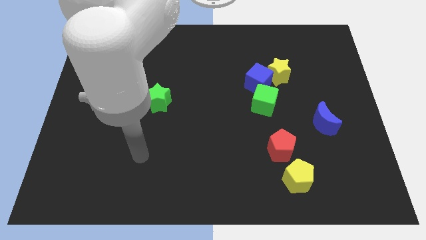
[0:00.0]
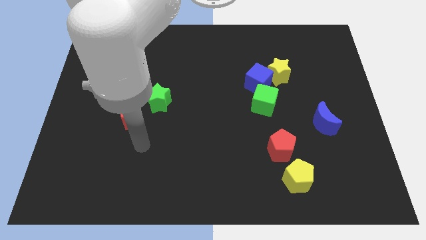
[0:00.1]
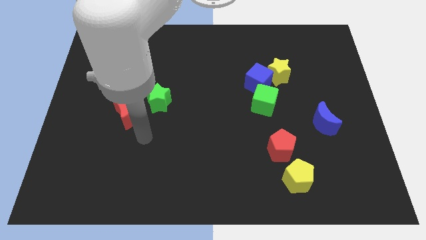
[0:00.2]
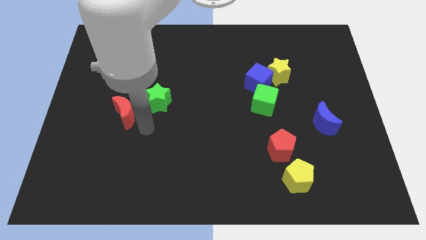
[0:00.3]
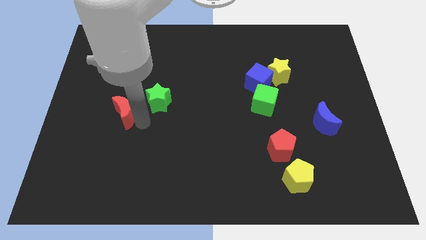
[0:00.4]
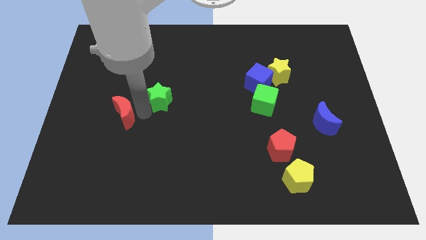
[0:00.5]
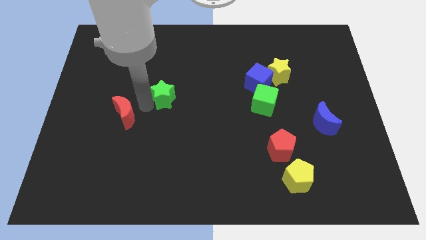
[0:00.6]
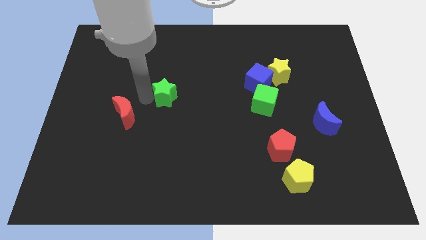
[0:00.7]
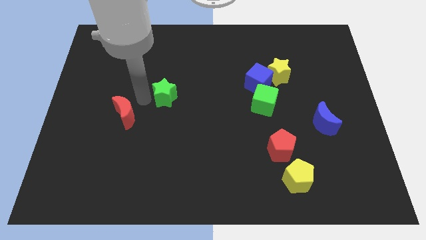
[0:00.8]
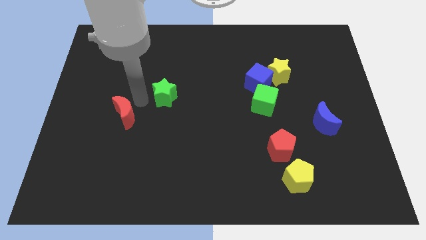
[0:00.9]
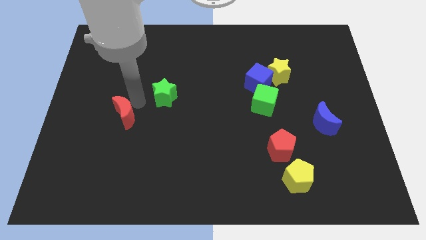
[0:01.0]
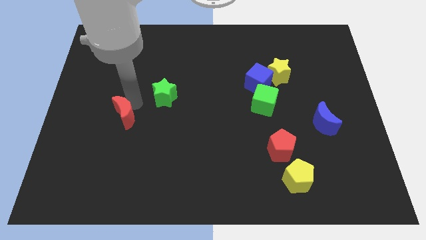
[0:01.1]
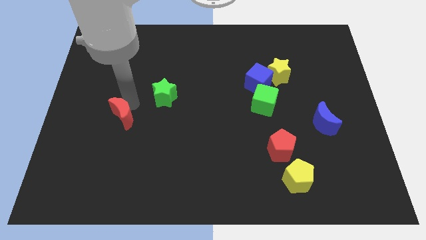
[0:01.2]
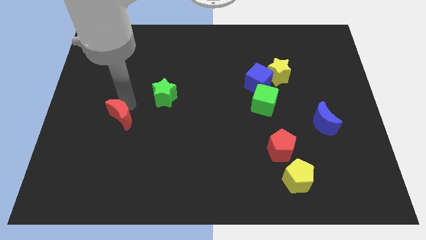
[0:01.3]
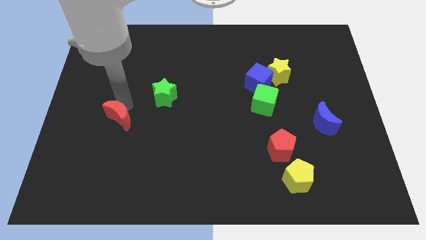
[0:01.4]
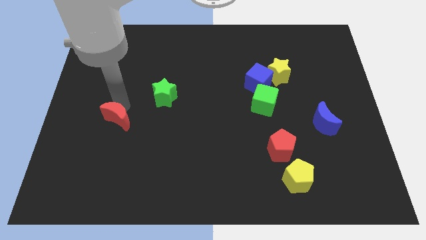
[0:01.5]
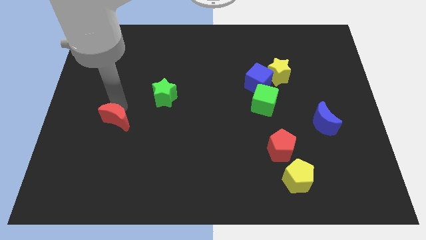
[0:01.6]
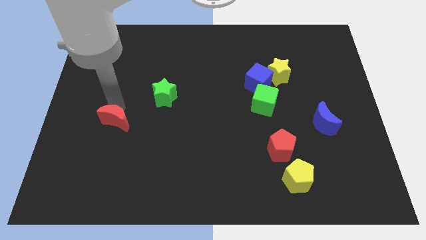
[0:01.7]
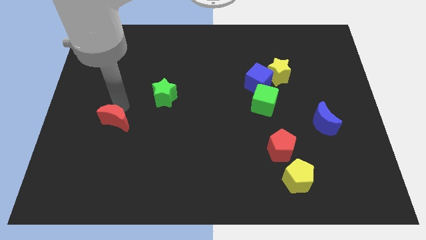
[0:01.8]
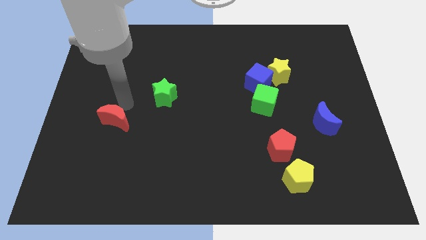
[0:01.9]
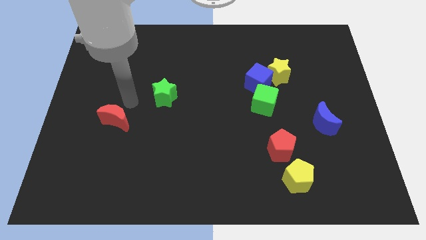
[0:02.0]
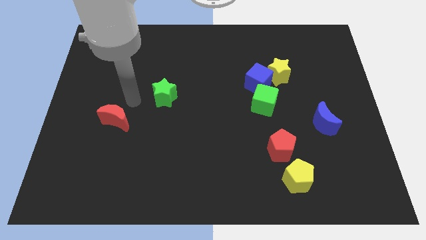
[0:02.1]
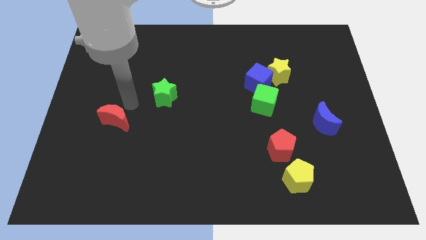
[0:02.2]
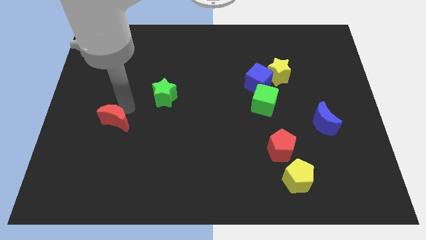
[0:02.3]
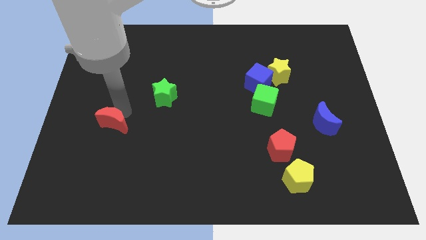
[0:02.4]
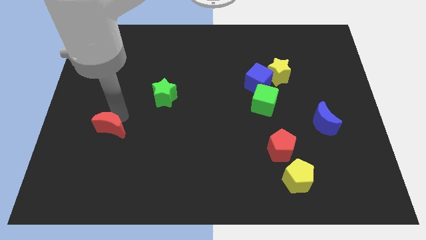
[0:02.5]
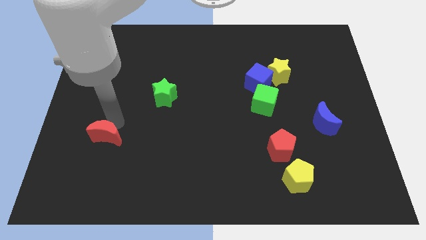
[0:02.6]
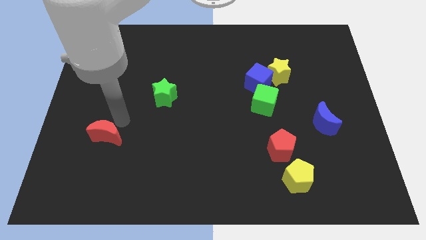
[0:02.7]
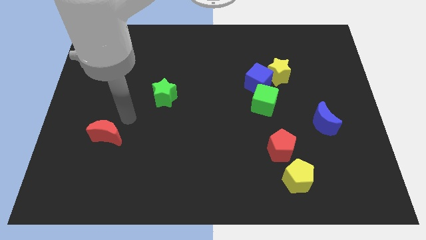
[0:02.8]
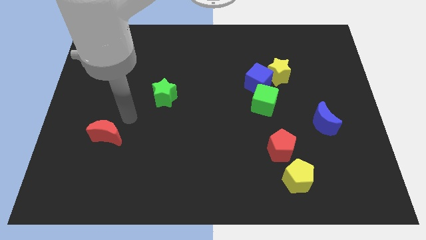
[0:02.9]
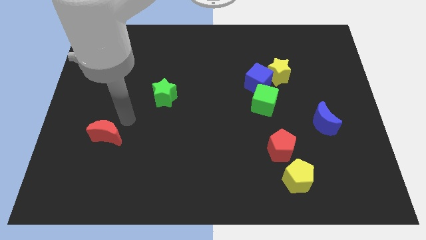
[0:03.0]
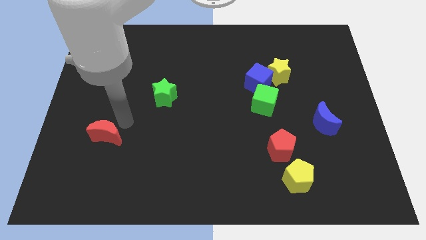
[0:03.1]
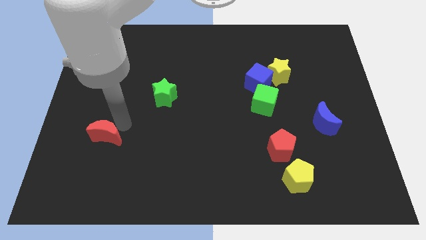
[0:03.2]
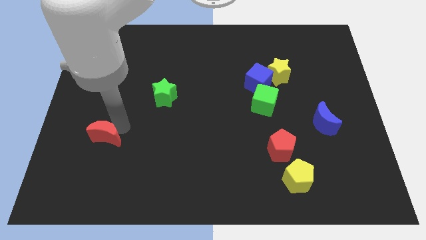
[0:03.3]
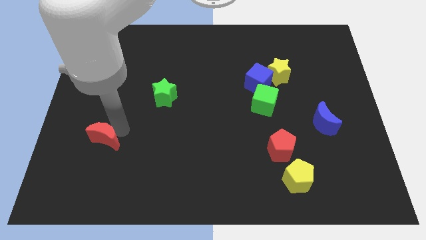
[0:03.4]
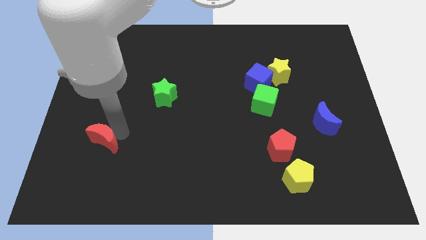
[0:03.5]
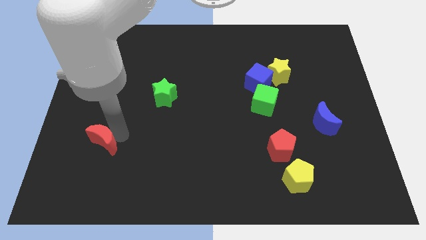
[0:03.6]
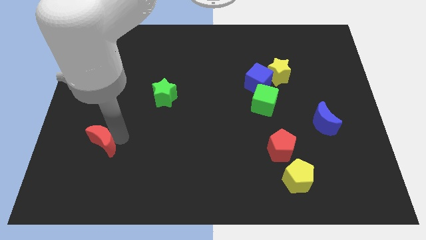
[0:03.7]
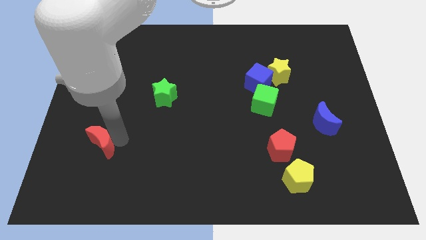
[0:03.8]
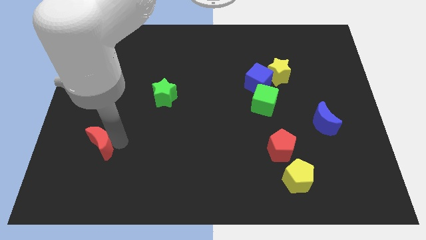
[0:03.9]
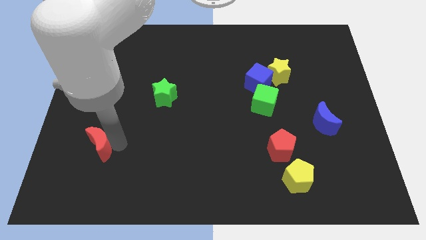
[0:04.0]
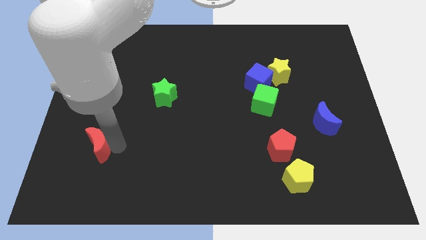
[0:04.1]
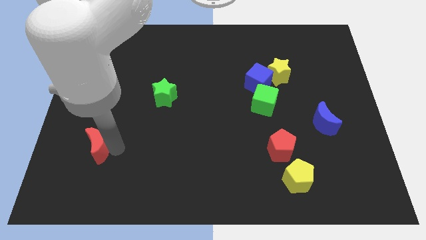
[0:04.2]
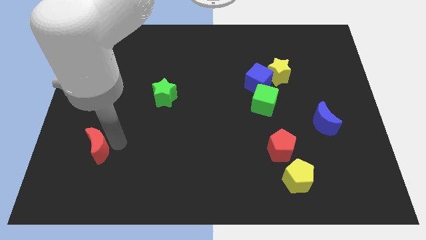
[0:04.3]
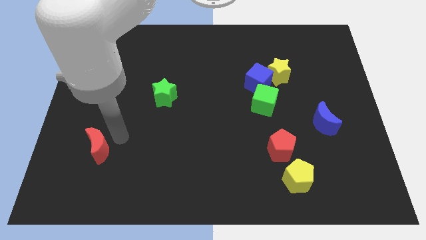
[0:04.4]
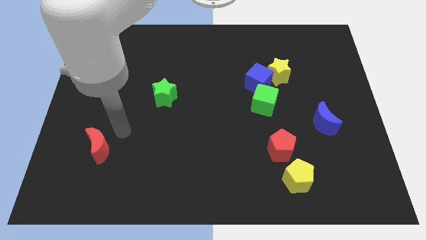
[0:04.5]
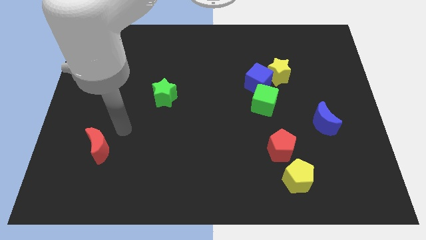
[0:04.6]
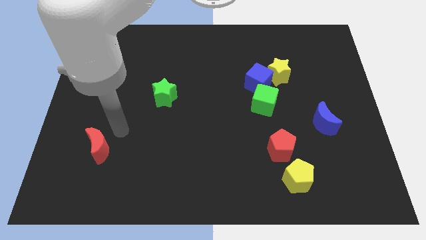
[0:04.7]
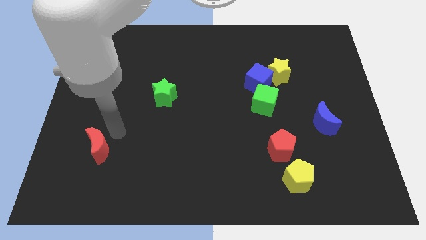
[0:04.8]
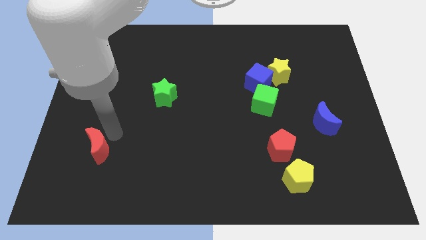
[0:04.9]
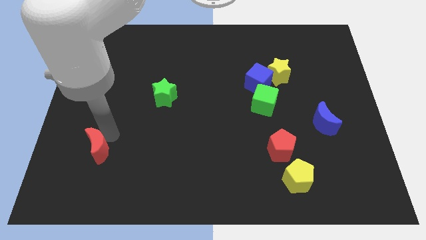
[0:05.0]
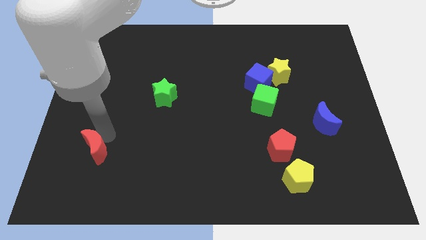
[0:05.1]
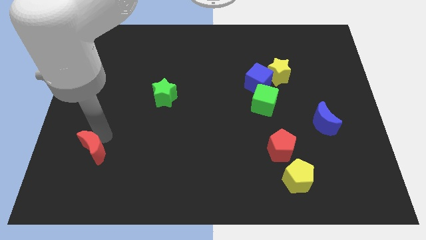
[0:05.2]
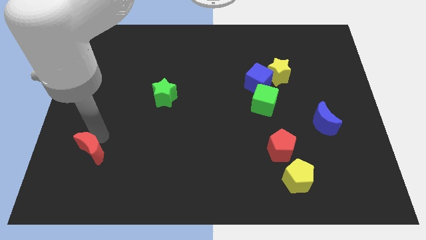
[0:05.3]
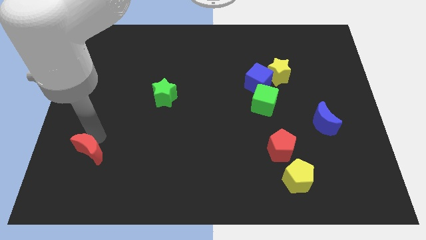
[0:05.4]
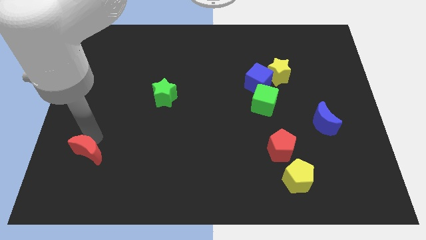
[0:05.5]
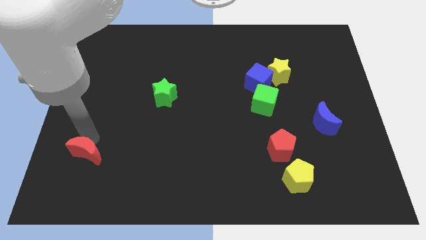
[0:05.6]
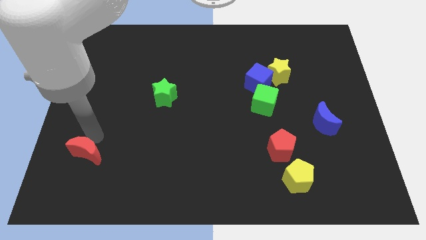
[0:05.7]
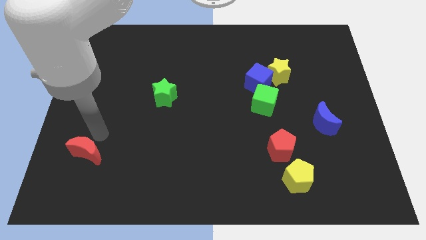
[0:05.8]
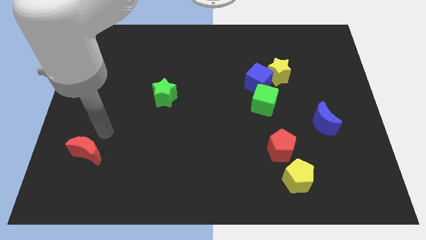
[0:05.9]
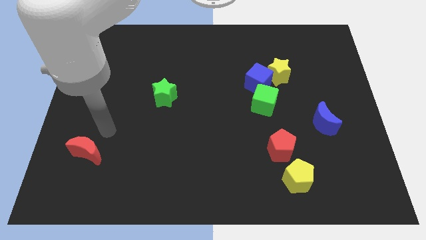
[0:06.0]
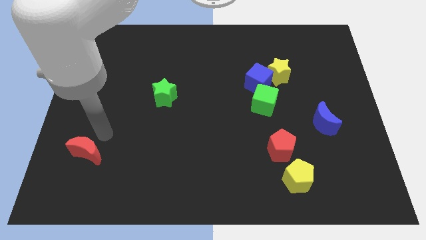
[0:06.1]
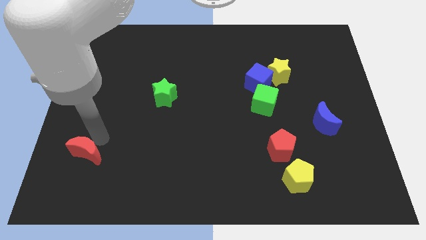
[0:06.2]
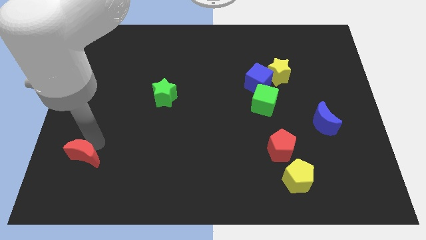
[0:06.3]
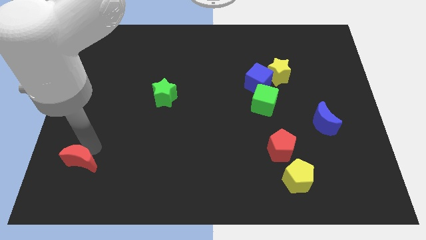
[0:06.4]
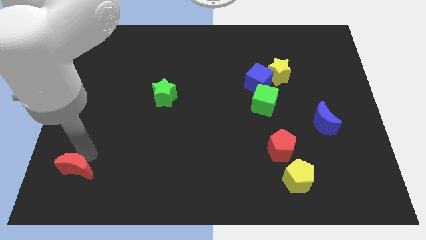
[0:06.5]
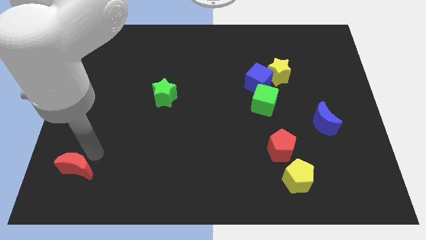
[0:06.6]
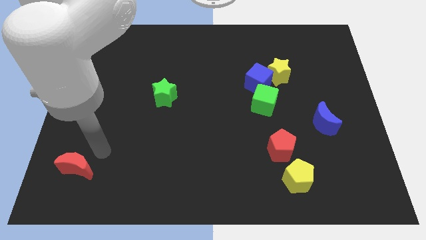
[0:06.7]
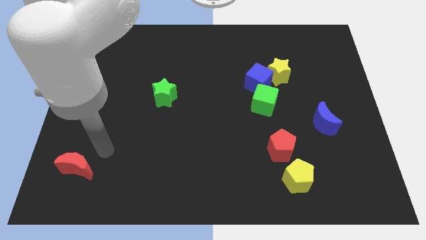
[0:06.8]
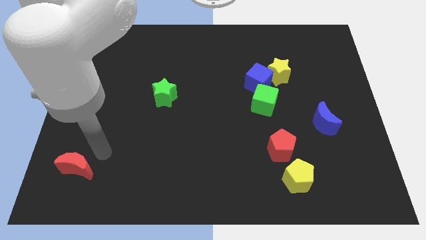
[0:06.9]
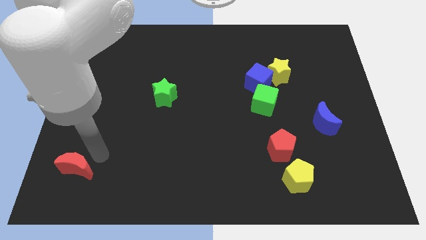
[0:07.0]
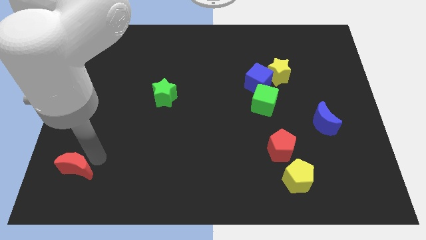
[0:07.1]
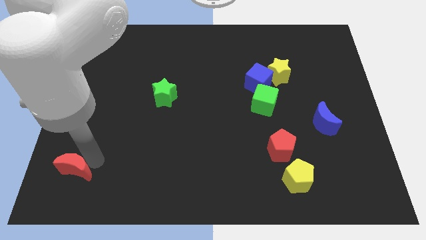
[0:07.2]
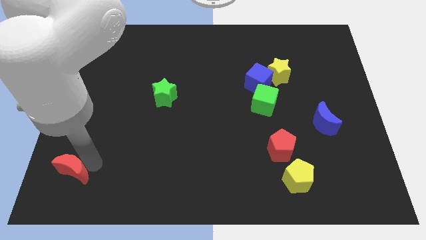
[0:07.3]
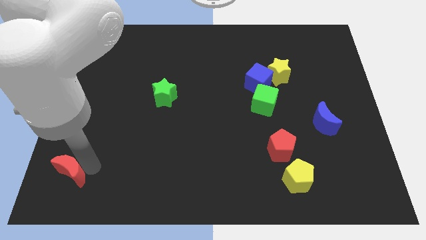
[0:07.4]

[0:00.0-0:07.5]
slide the red moon to the bottom left
